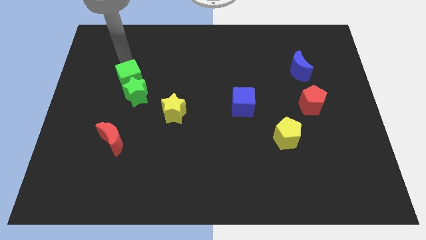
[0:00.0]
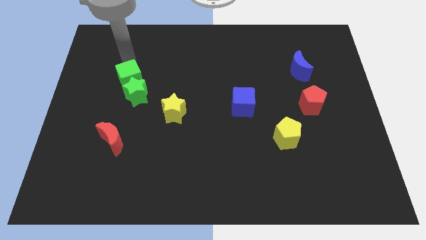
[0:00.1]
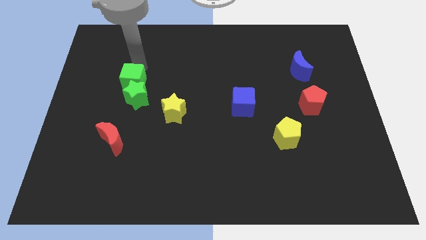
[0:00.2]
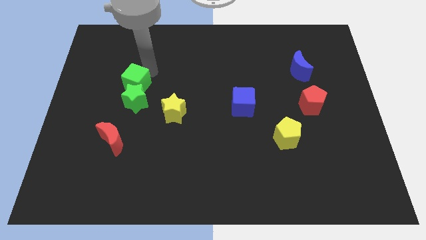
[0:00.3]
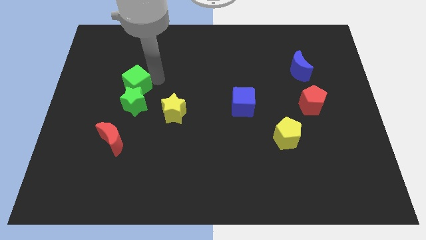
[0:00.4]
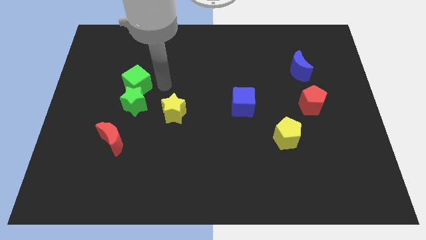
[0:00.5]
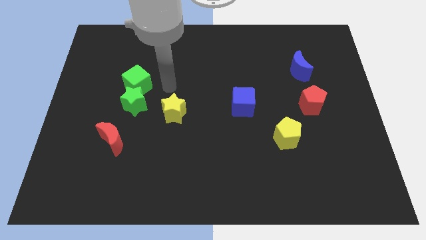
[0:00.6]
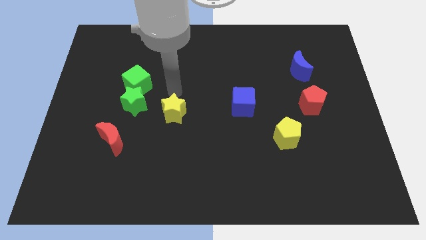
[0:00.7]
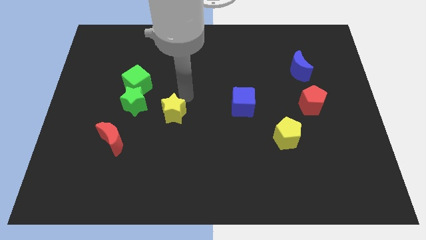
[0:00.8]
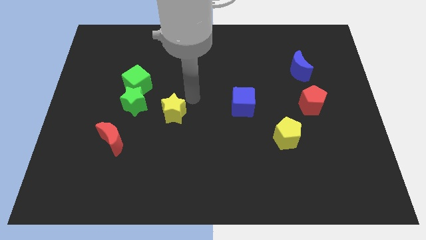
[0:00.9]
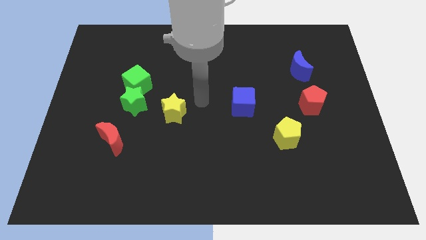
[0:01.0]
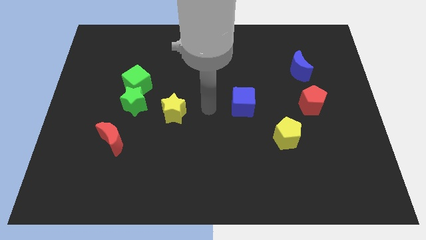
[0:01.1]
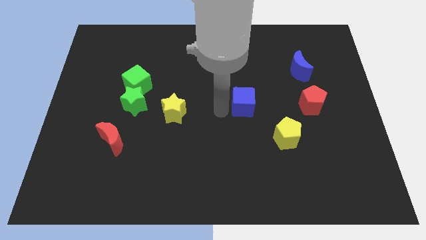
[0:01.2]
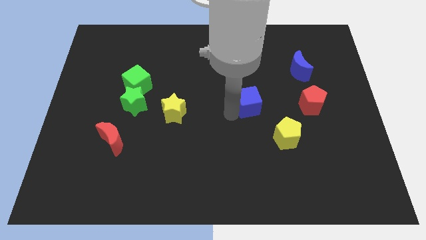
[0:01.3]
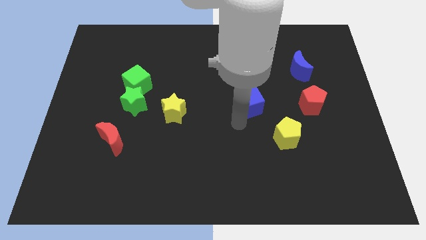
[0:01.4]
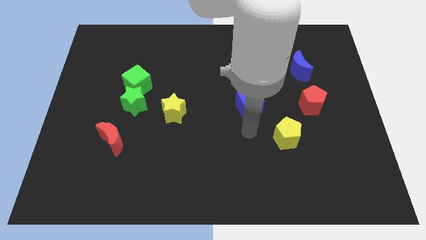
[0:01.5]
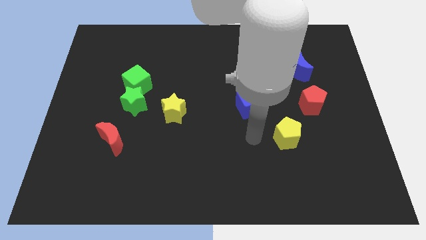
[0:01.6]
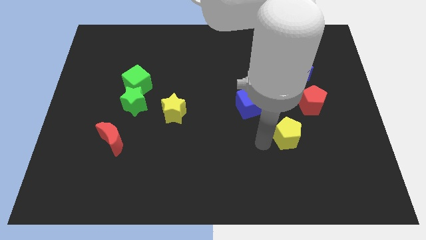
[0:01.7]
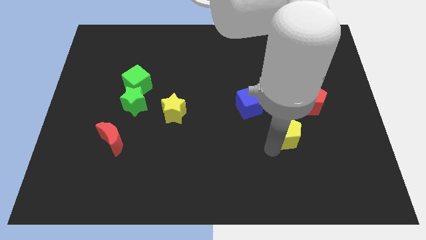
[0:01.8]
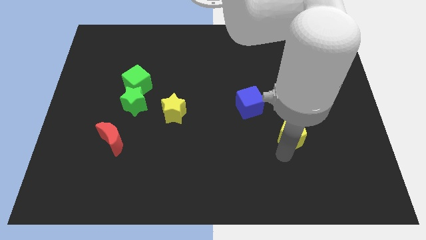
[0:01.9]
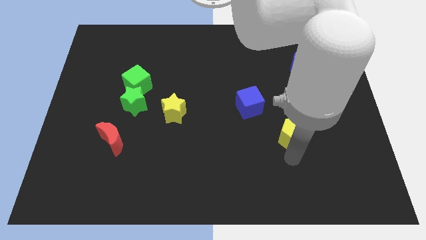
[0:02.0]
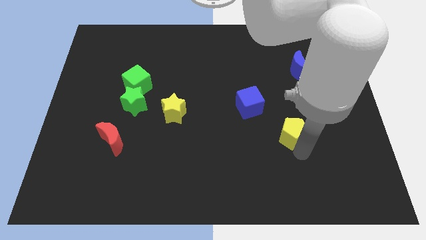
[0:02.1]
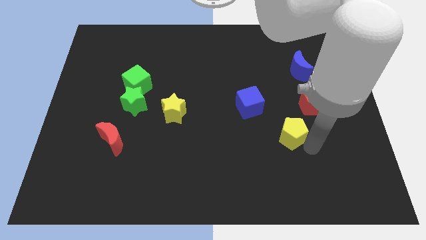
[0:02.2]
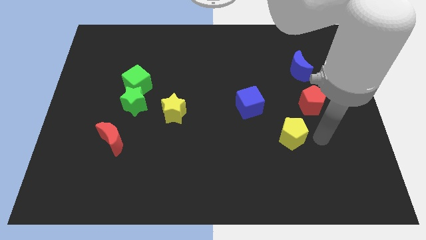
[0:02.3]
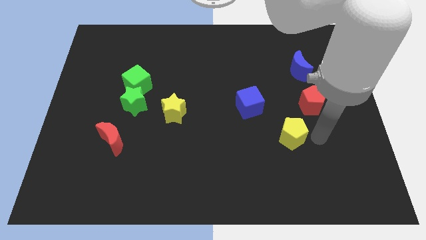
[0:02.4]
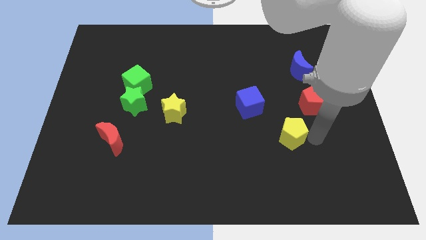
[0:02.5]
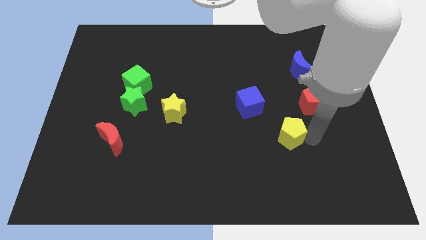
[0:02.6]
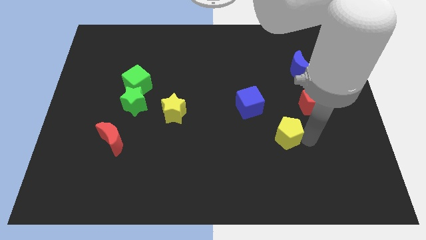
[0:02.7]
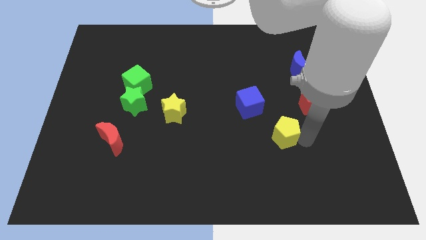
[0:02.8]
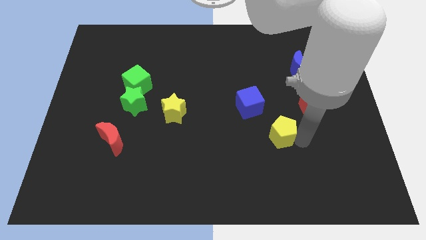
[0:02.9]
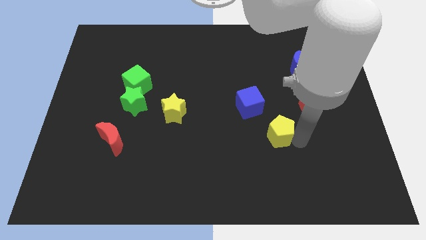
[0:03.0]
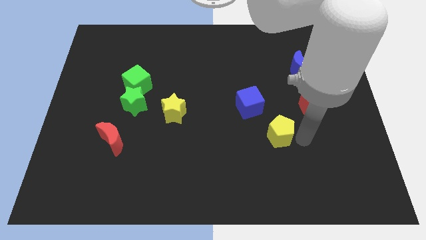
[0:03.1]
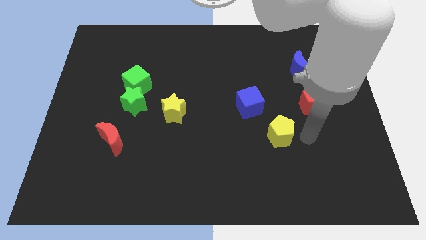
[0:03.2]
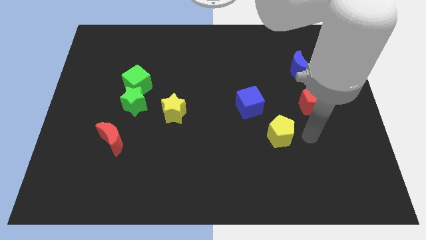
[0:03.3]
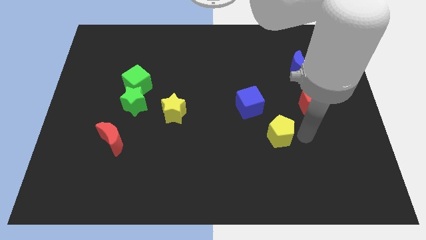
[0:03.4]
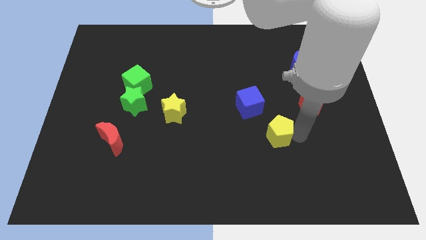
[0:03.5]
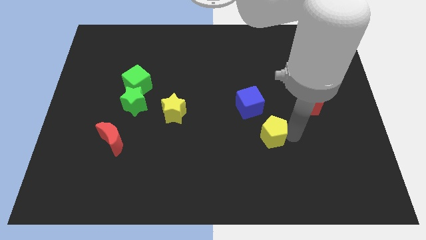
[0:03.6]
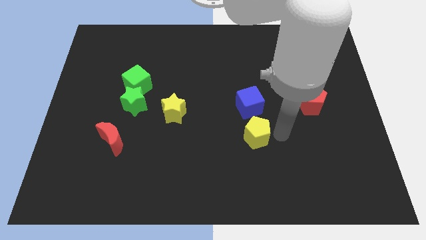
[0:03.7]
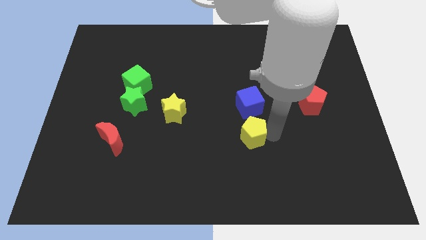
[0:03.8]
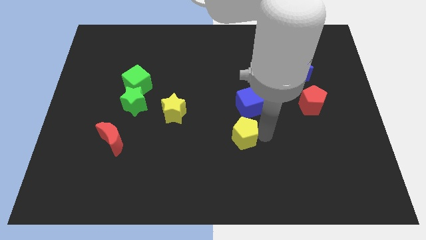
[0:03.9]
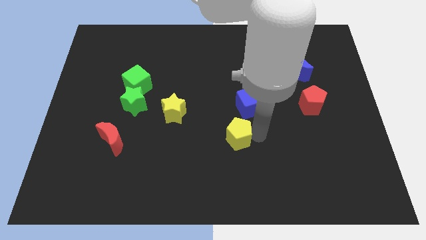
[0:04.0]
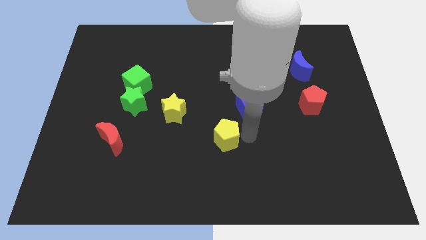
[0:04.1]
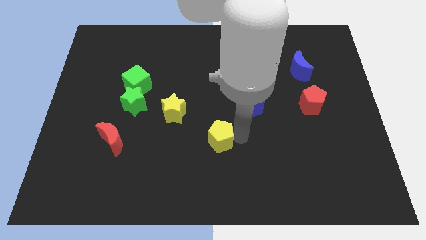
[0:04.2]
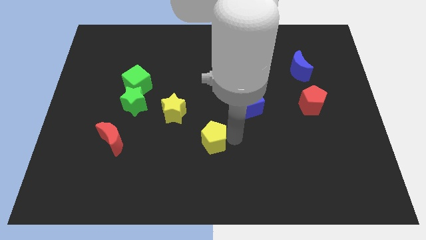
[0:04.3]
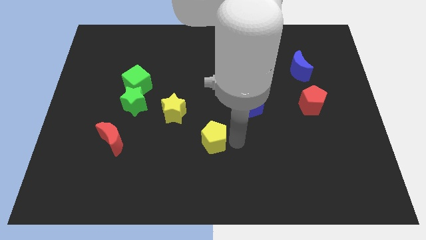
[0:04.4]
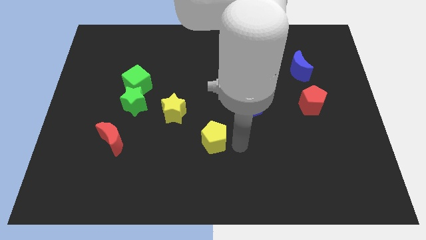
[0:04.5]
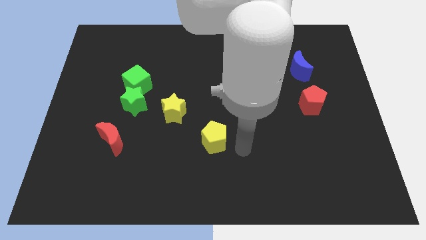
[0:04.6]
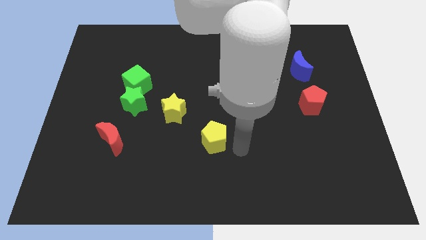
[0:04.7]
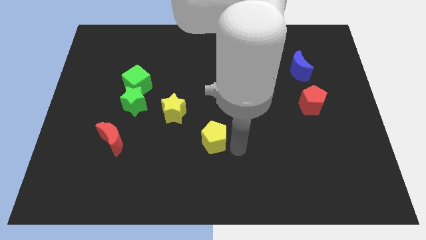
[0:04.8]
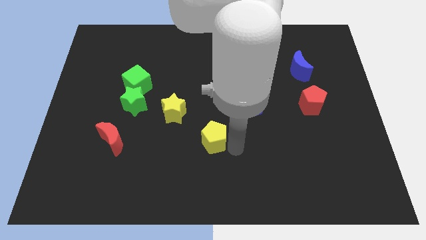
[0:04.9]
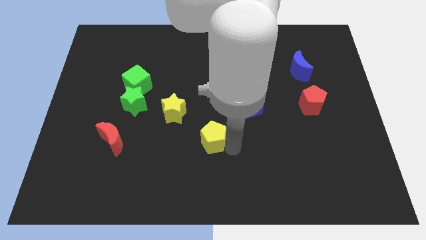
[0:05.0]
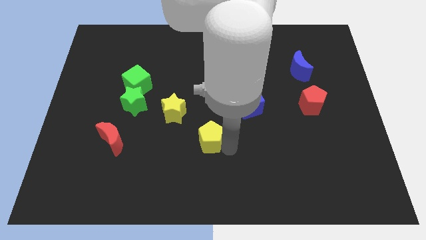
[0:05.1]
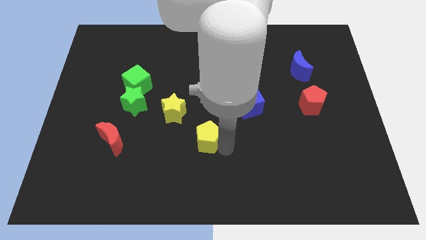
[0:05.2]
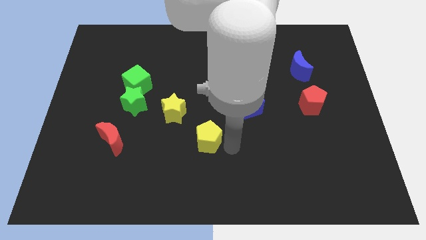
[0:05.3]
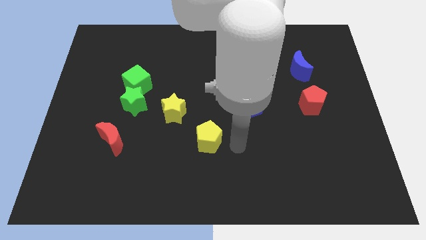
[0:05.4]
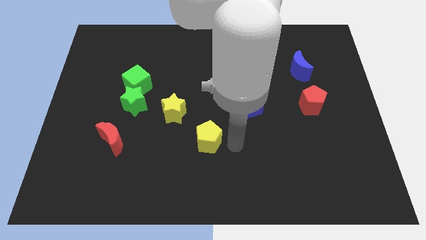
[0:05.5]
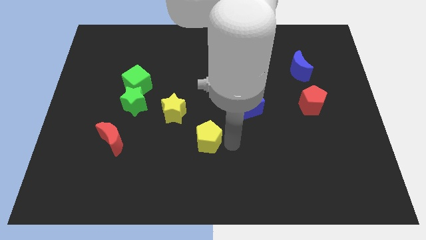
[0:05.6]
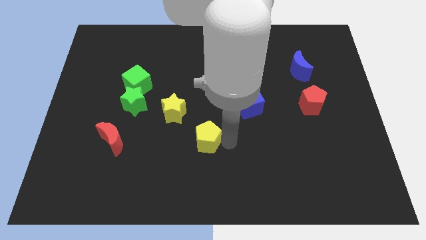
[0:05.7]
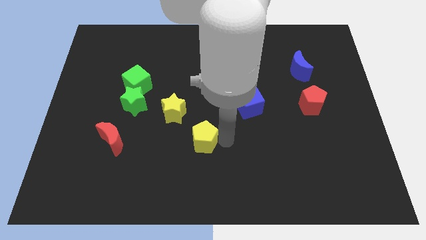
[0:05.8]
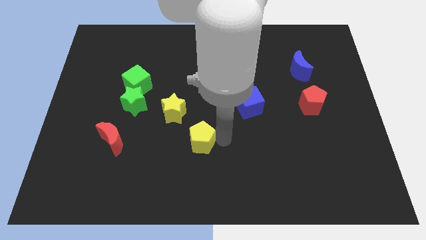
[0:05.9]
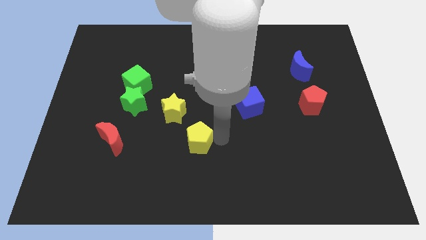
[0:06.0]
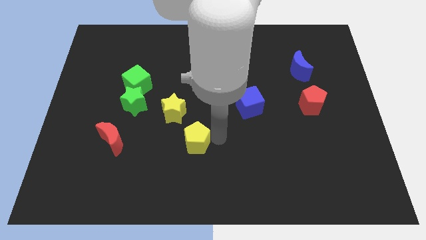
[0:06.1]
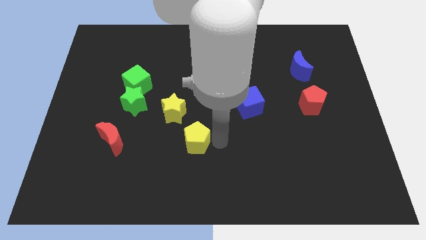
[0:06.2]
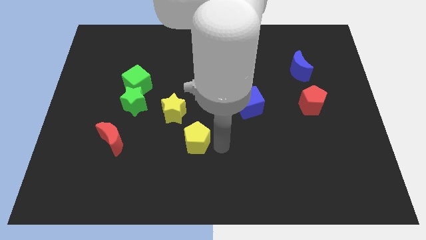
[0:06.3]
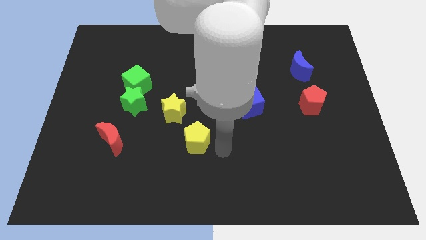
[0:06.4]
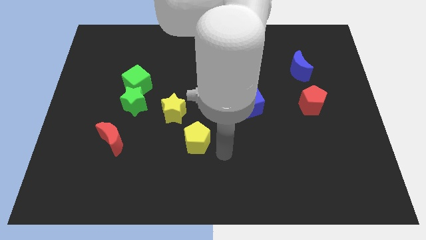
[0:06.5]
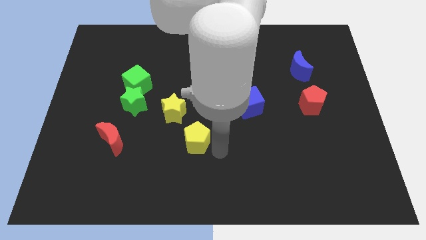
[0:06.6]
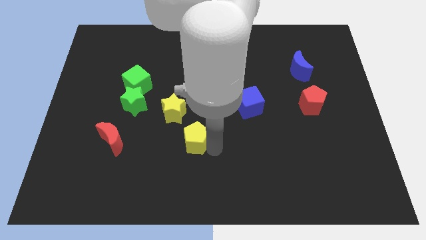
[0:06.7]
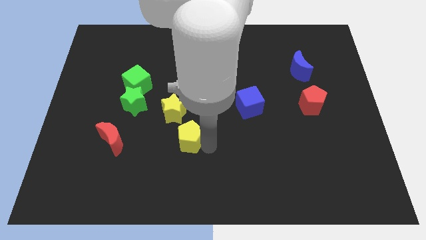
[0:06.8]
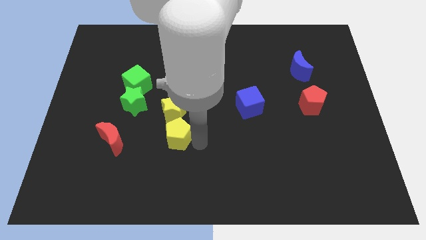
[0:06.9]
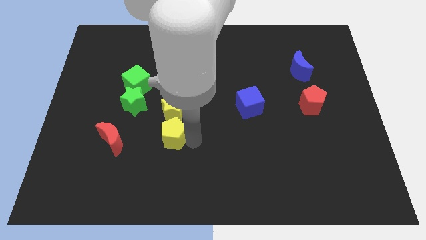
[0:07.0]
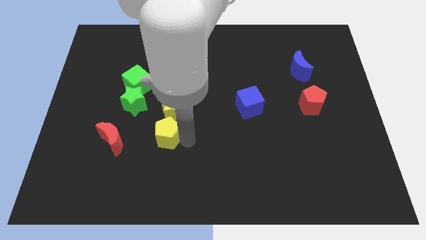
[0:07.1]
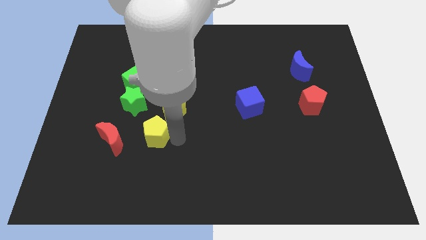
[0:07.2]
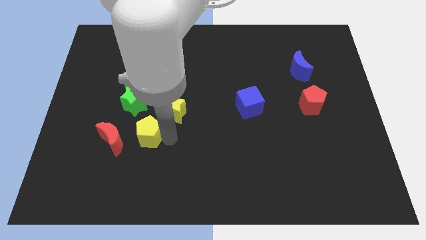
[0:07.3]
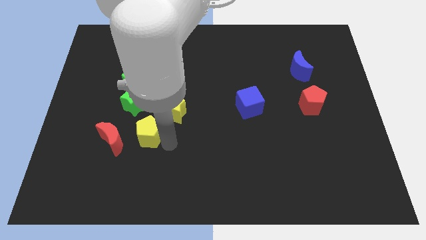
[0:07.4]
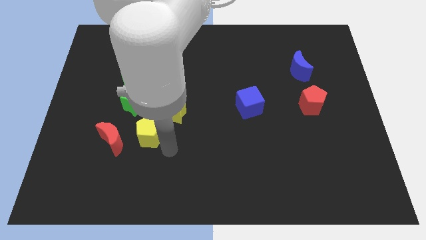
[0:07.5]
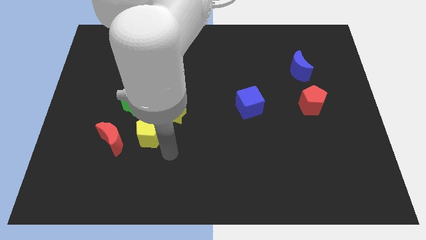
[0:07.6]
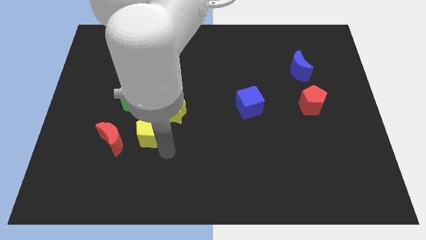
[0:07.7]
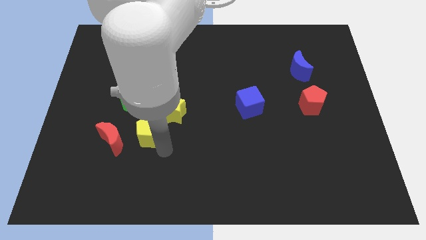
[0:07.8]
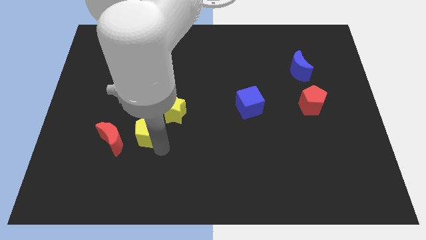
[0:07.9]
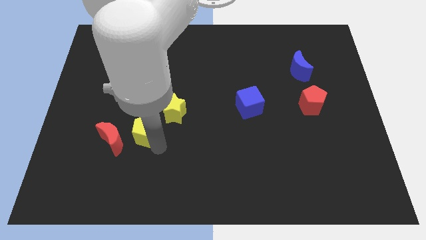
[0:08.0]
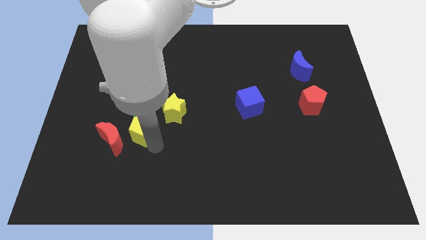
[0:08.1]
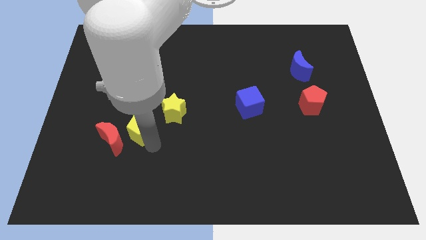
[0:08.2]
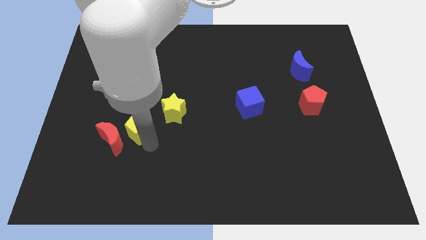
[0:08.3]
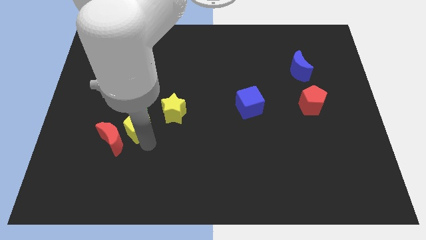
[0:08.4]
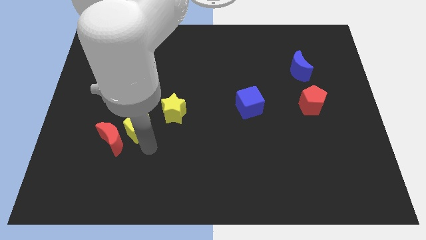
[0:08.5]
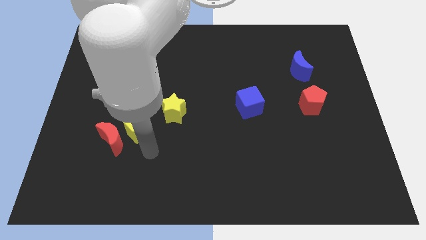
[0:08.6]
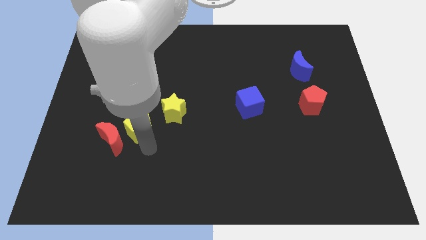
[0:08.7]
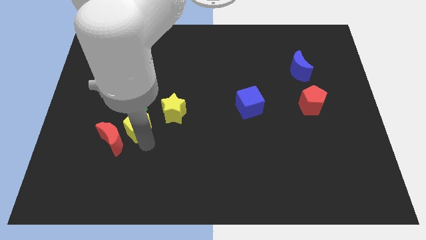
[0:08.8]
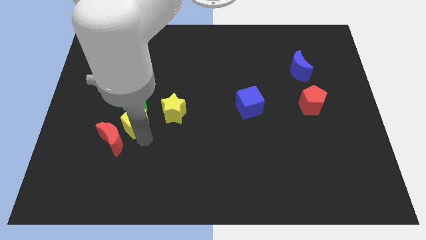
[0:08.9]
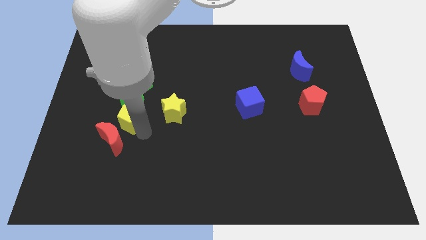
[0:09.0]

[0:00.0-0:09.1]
push the yellow pentagon to the bottom left of the green star
